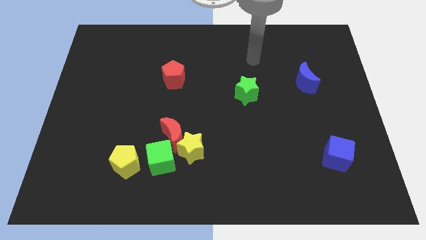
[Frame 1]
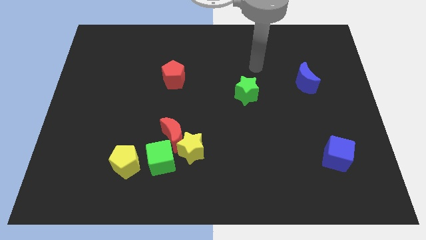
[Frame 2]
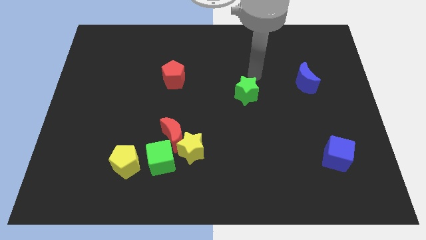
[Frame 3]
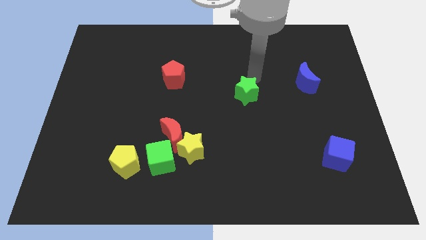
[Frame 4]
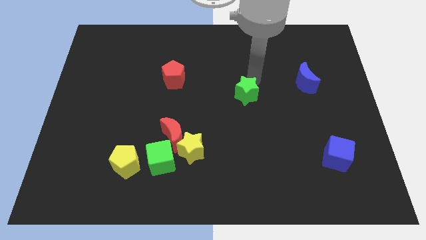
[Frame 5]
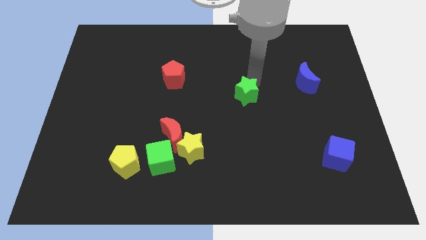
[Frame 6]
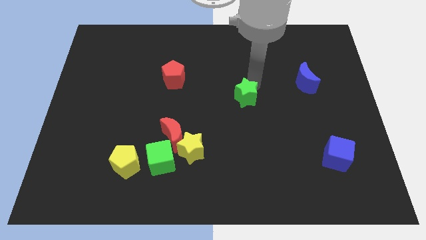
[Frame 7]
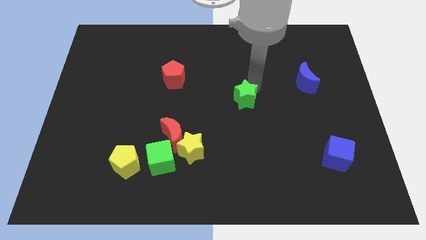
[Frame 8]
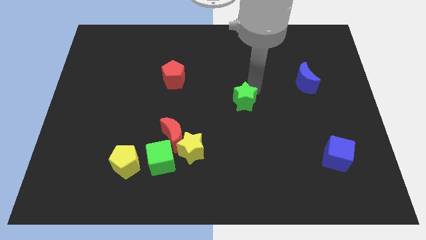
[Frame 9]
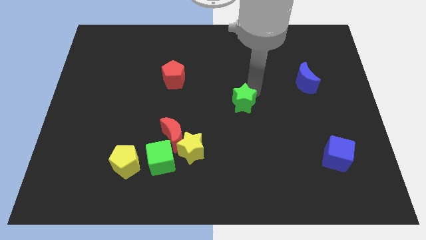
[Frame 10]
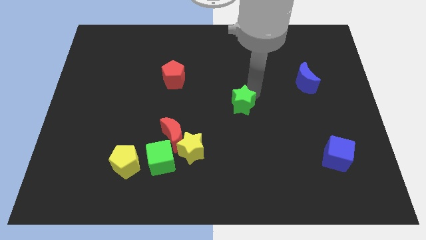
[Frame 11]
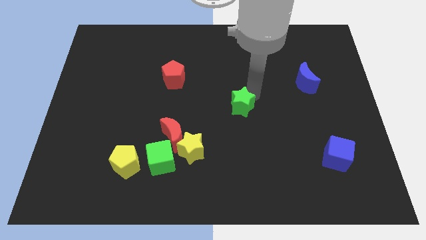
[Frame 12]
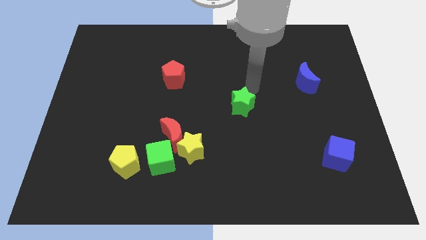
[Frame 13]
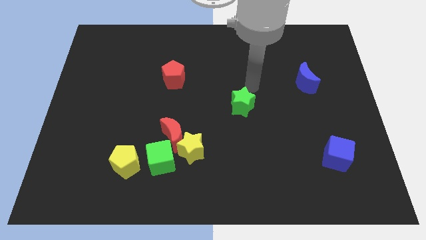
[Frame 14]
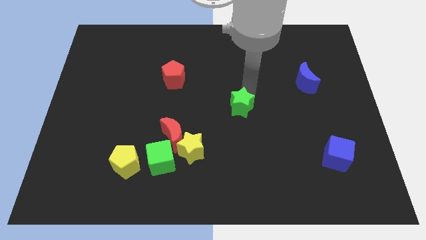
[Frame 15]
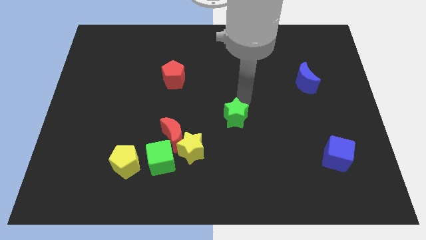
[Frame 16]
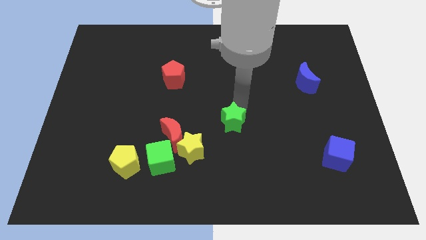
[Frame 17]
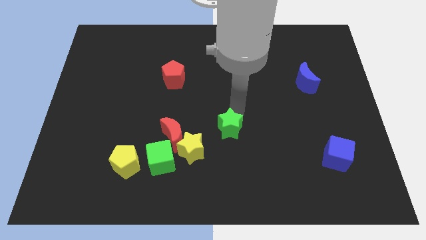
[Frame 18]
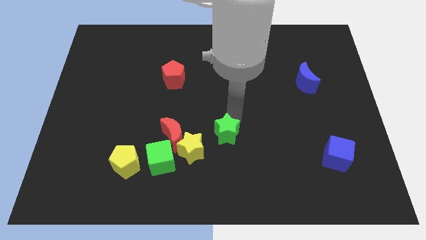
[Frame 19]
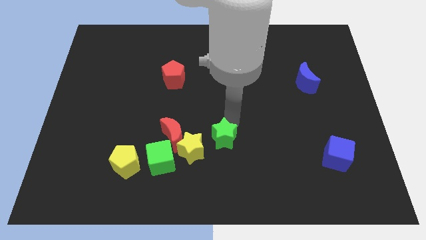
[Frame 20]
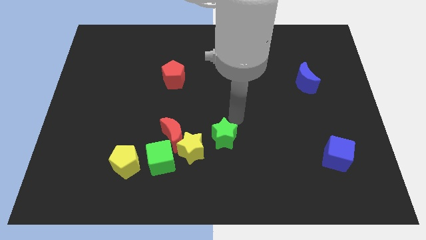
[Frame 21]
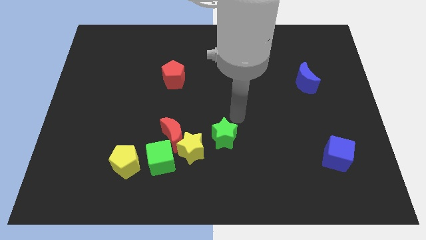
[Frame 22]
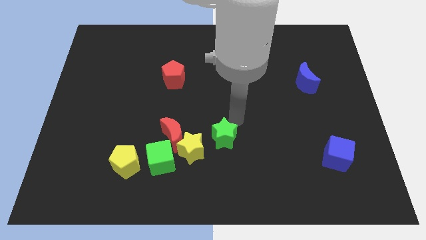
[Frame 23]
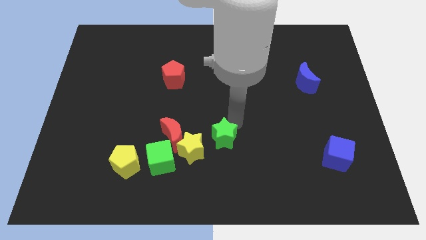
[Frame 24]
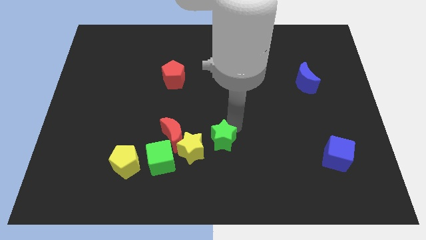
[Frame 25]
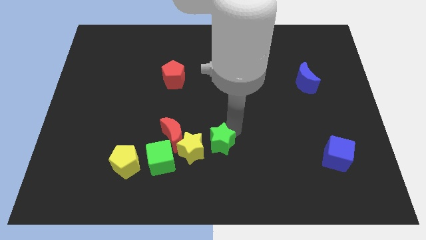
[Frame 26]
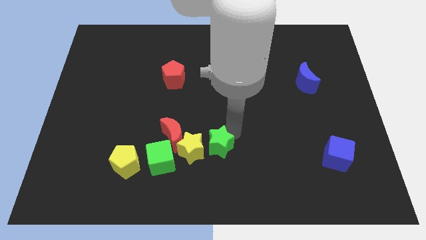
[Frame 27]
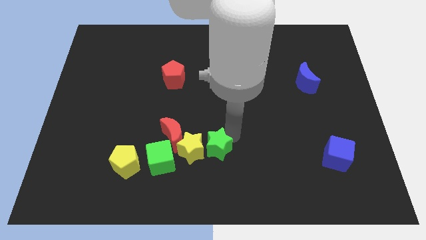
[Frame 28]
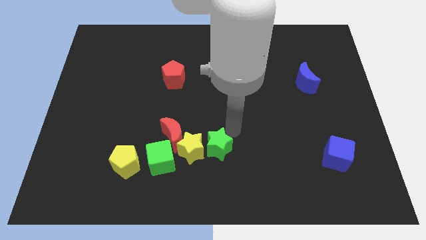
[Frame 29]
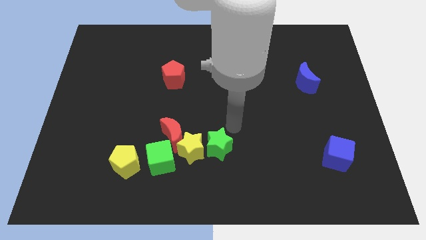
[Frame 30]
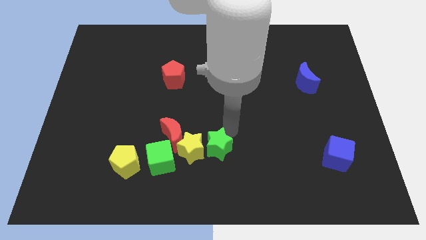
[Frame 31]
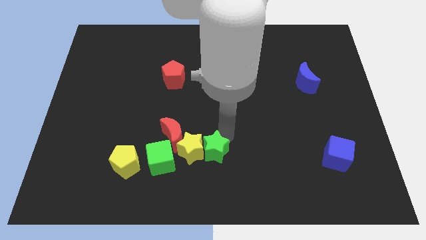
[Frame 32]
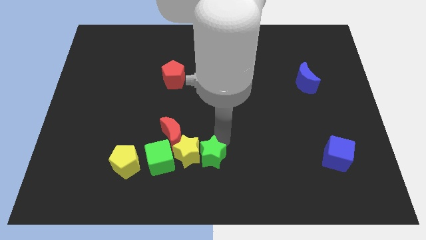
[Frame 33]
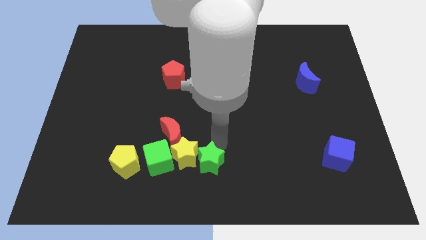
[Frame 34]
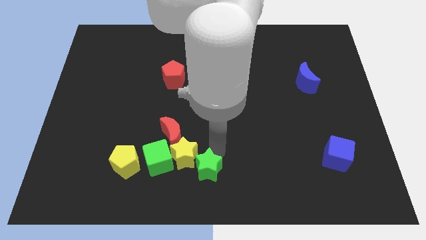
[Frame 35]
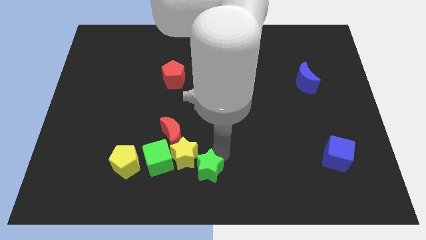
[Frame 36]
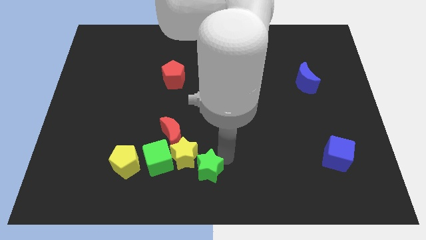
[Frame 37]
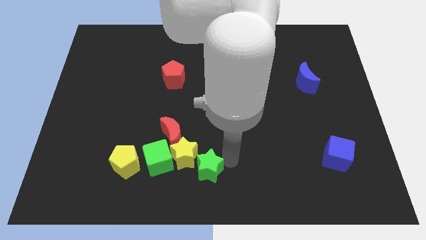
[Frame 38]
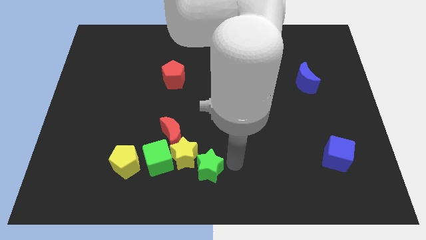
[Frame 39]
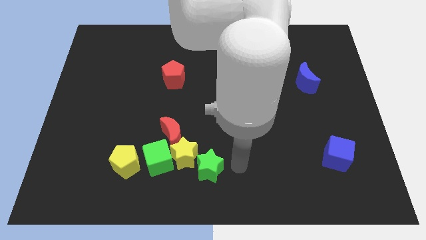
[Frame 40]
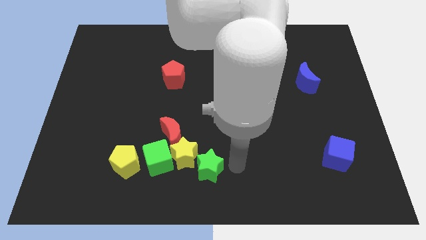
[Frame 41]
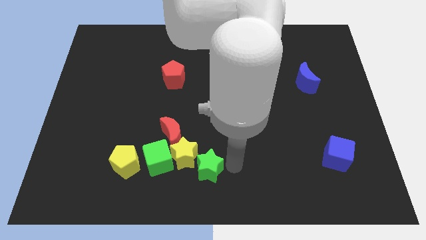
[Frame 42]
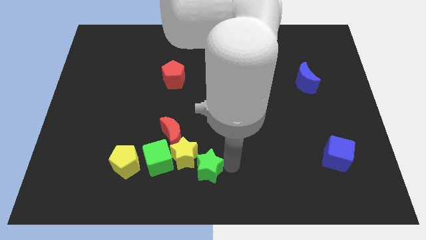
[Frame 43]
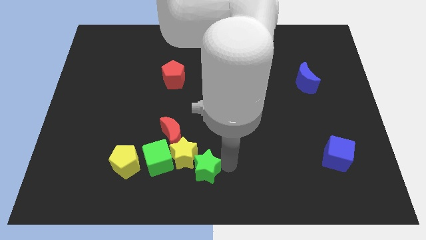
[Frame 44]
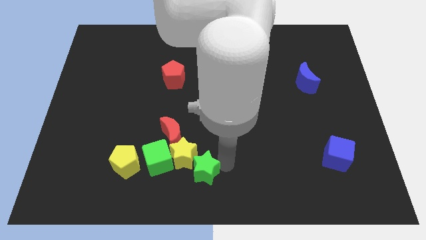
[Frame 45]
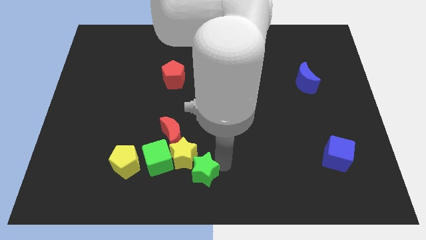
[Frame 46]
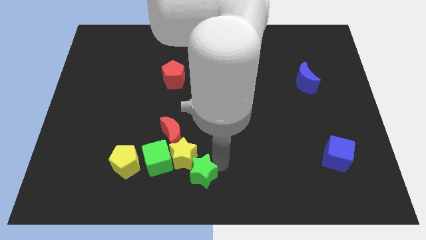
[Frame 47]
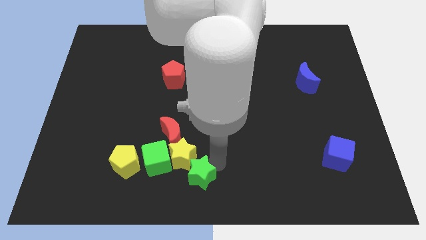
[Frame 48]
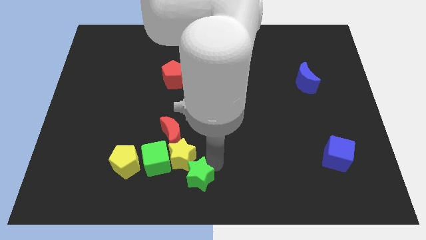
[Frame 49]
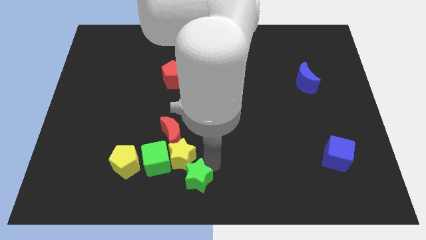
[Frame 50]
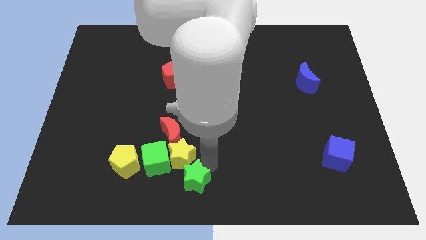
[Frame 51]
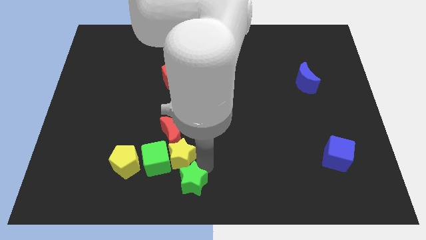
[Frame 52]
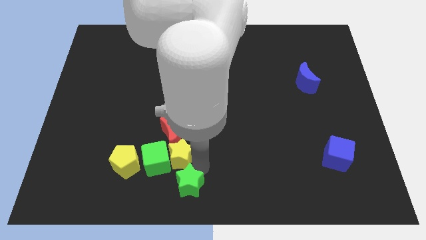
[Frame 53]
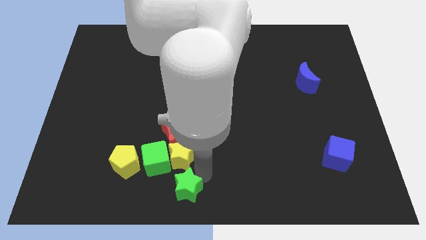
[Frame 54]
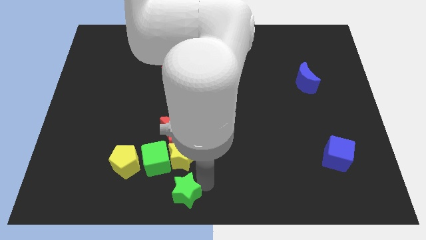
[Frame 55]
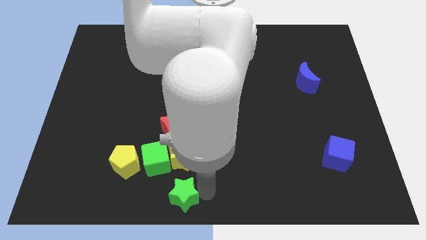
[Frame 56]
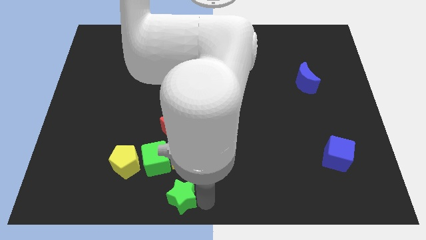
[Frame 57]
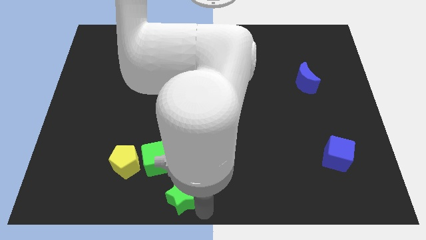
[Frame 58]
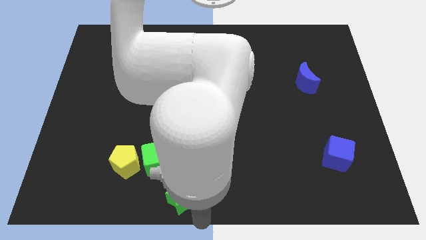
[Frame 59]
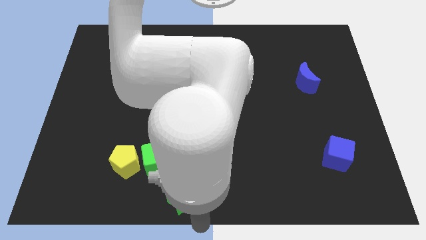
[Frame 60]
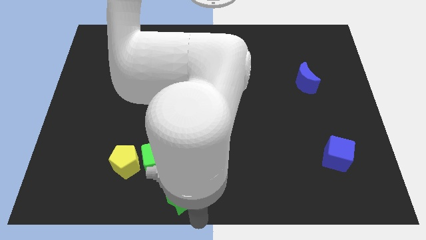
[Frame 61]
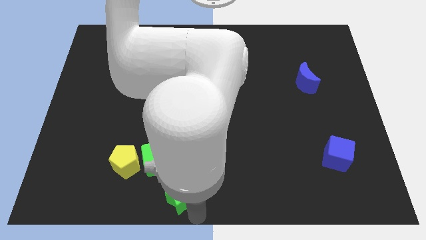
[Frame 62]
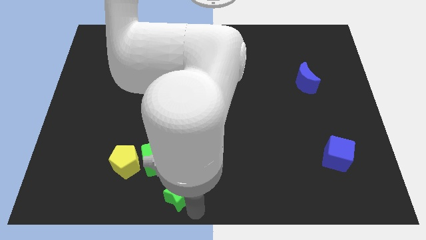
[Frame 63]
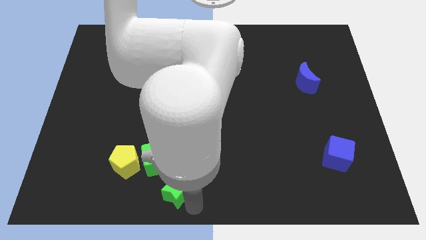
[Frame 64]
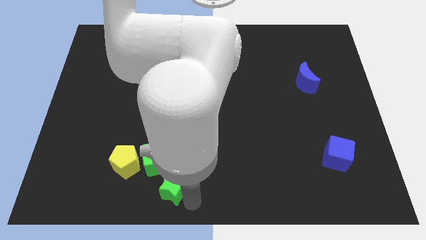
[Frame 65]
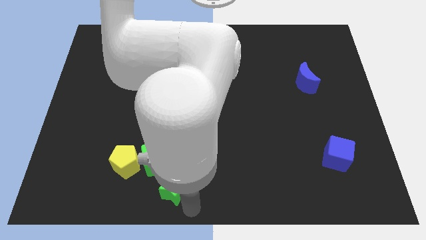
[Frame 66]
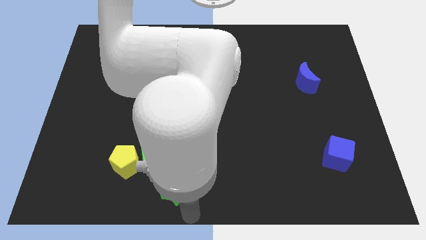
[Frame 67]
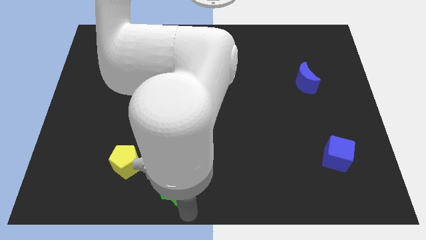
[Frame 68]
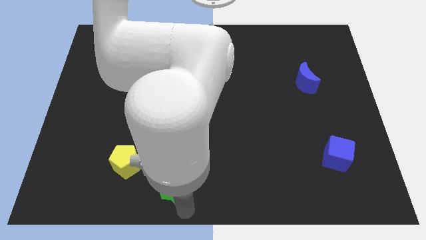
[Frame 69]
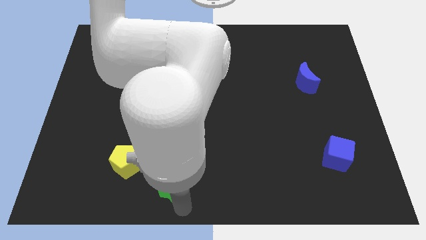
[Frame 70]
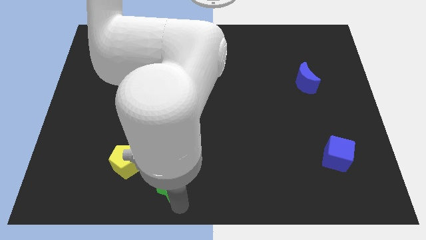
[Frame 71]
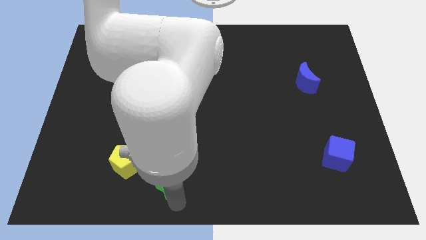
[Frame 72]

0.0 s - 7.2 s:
slide the green star next to the green cube

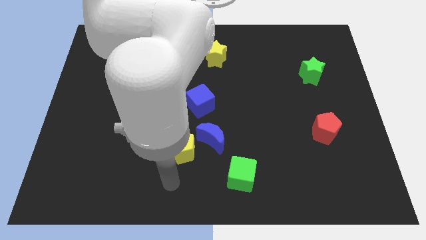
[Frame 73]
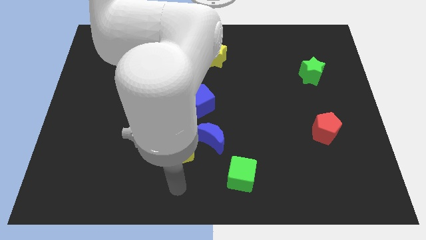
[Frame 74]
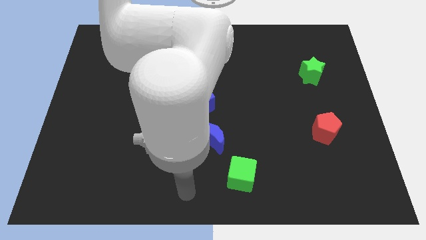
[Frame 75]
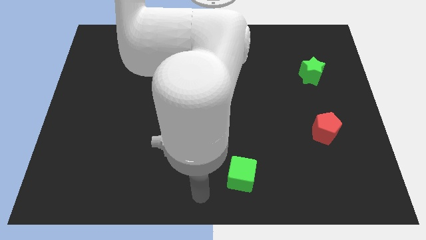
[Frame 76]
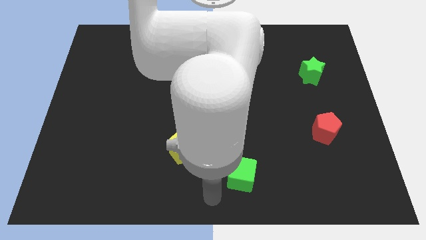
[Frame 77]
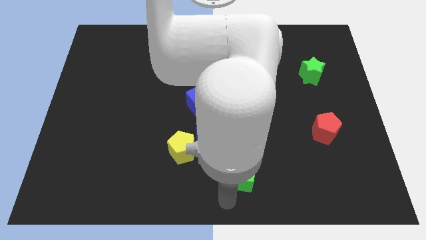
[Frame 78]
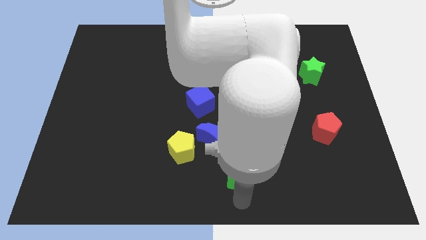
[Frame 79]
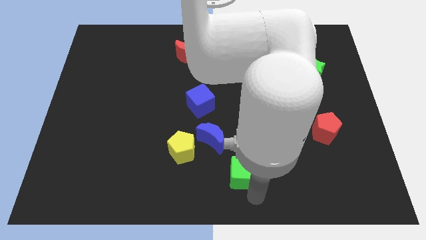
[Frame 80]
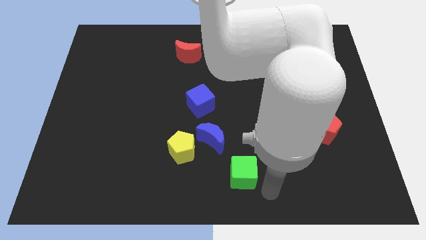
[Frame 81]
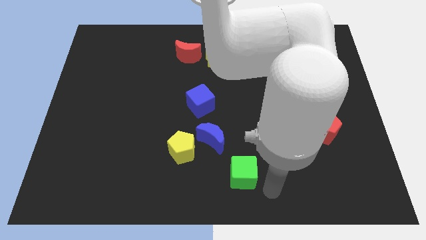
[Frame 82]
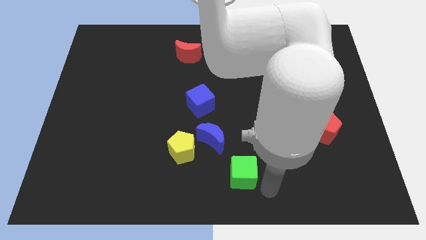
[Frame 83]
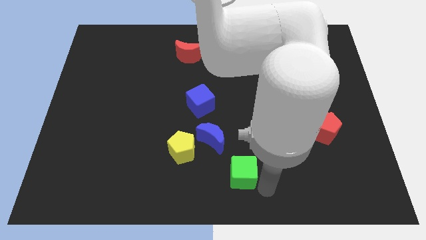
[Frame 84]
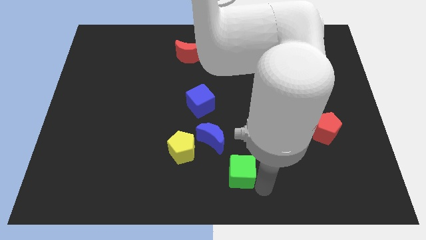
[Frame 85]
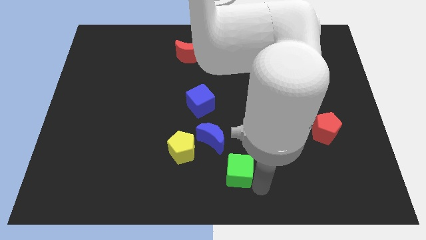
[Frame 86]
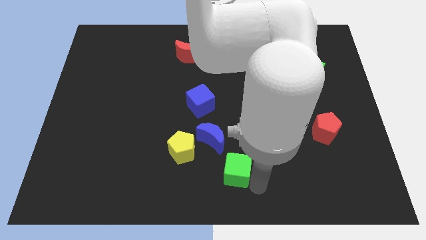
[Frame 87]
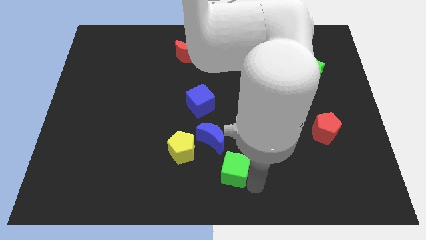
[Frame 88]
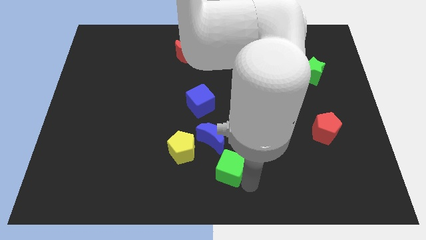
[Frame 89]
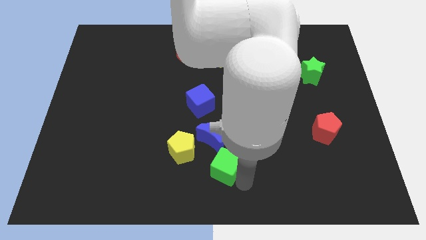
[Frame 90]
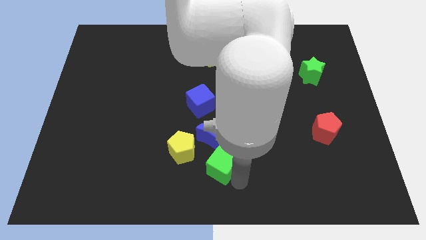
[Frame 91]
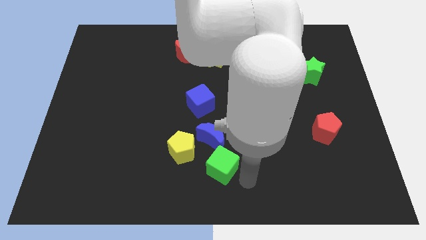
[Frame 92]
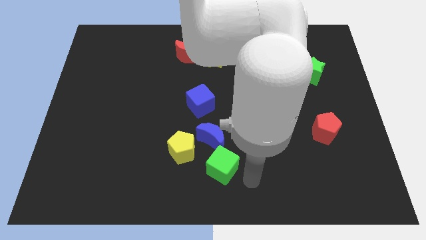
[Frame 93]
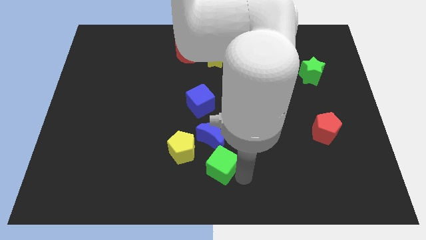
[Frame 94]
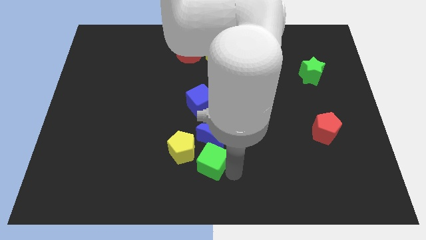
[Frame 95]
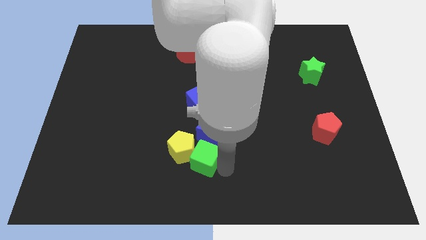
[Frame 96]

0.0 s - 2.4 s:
push the green cube towards the yellow pentagon
